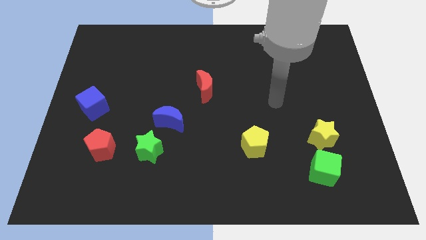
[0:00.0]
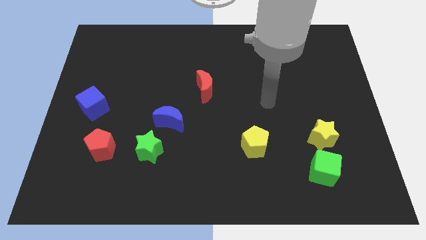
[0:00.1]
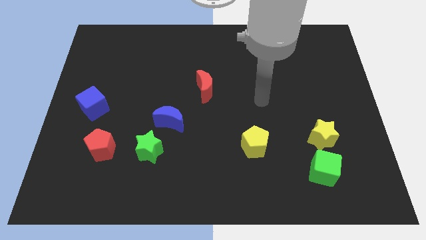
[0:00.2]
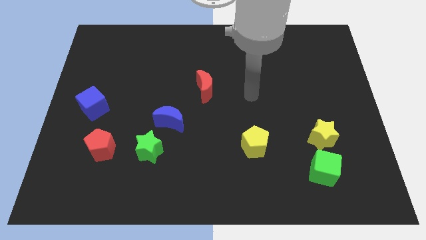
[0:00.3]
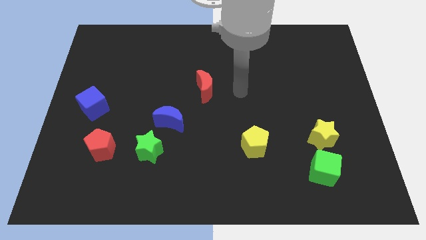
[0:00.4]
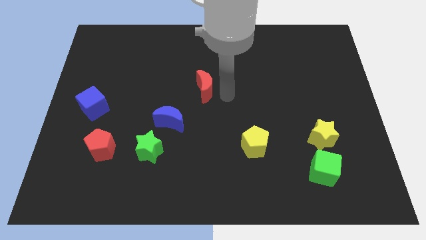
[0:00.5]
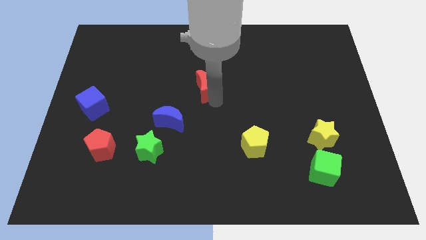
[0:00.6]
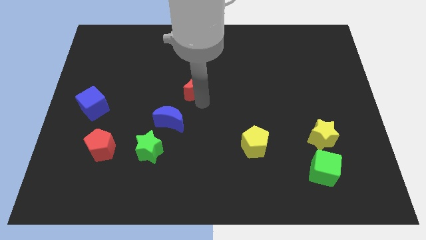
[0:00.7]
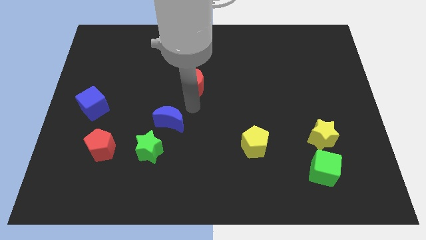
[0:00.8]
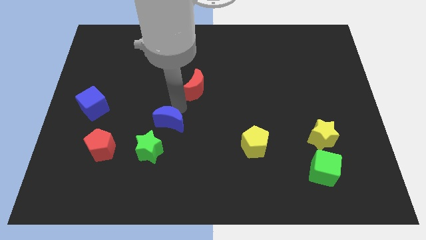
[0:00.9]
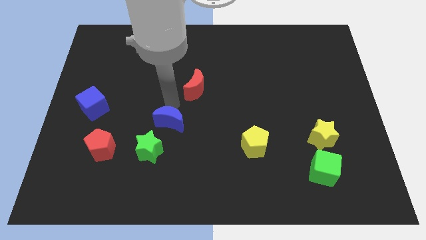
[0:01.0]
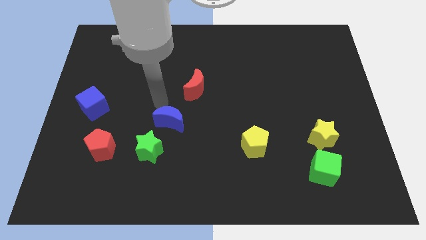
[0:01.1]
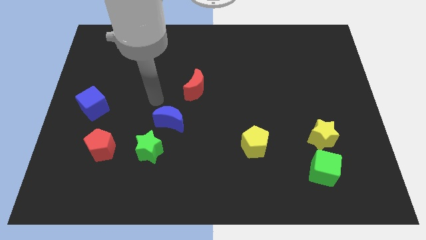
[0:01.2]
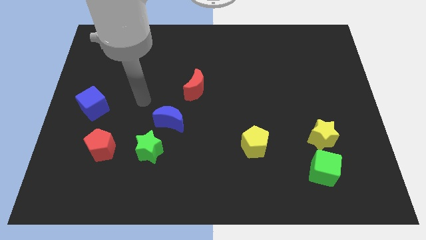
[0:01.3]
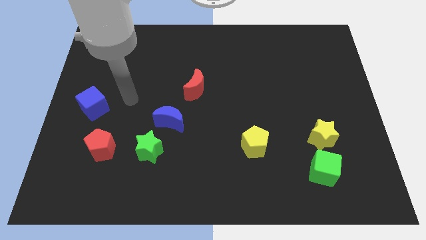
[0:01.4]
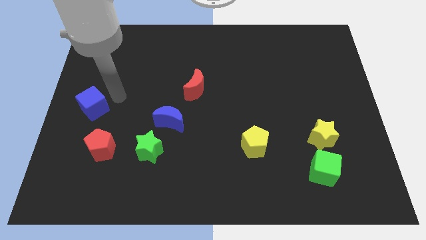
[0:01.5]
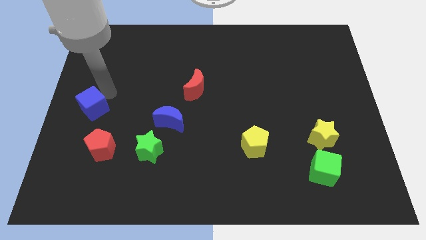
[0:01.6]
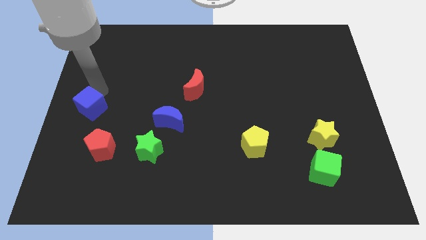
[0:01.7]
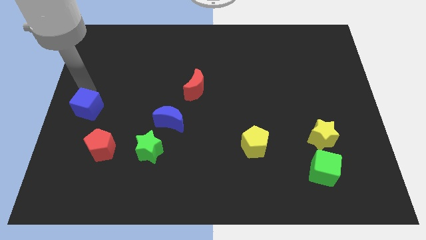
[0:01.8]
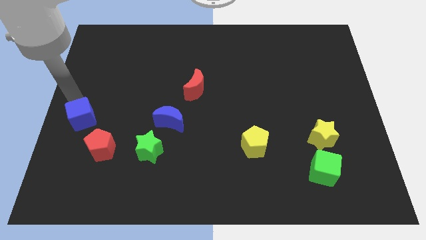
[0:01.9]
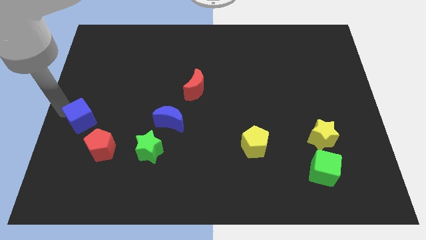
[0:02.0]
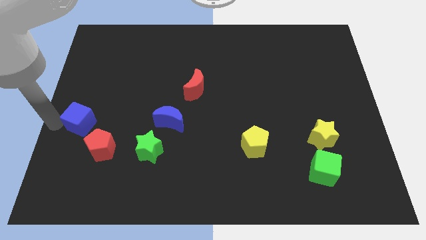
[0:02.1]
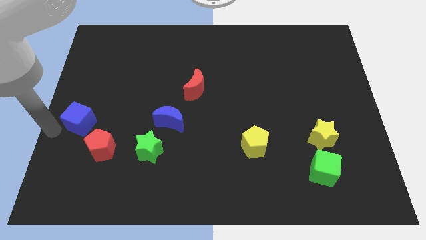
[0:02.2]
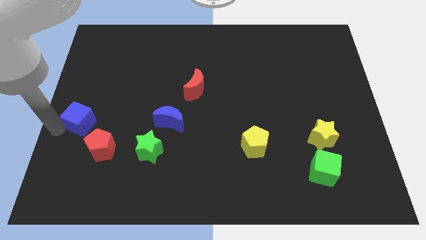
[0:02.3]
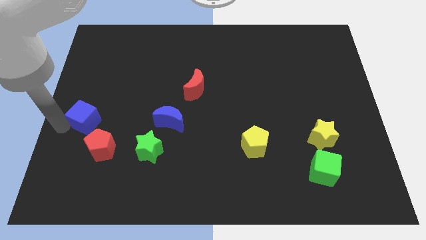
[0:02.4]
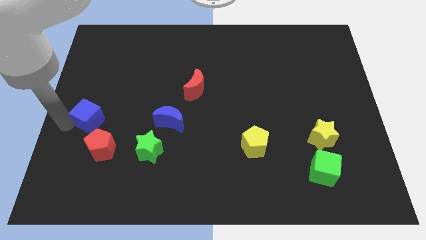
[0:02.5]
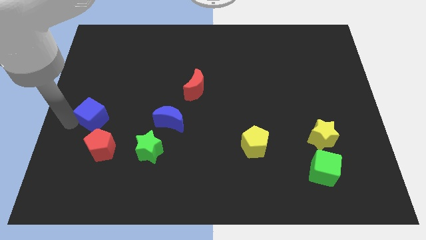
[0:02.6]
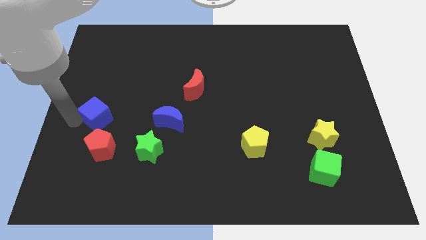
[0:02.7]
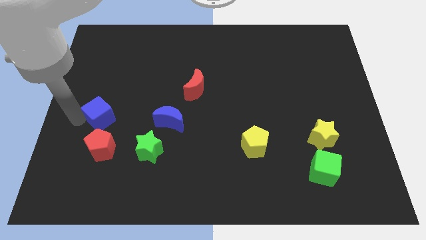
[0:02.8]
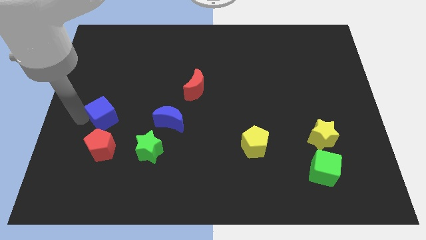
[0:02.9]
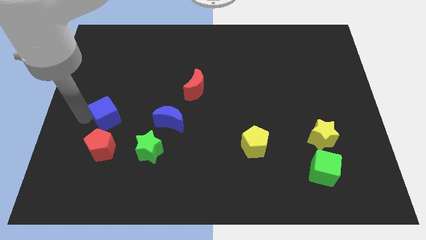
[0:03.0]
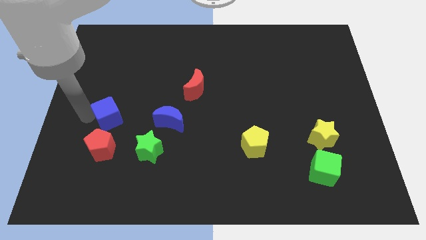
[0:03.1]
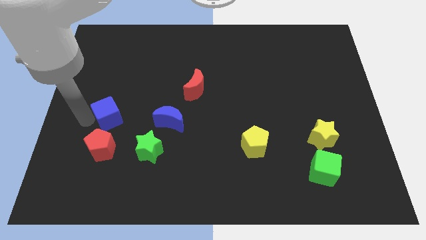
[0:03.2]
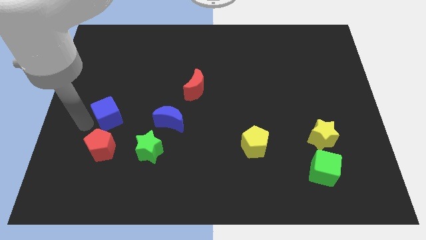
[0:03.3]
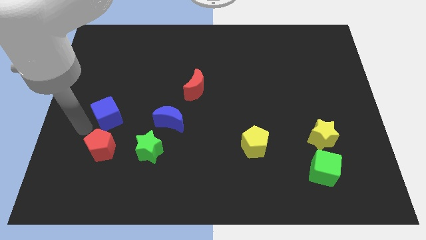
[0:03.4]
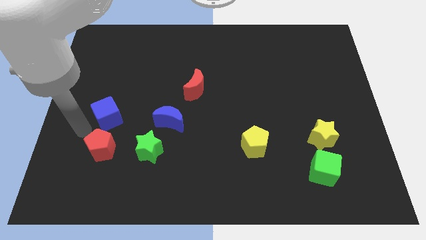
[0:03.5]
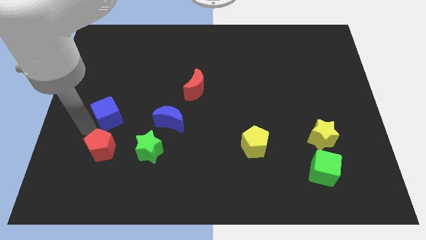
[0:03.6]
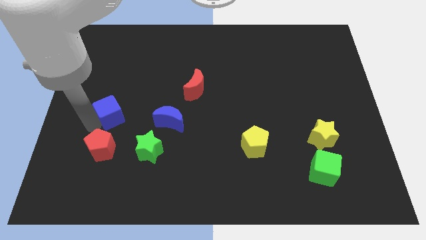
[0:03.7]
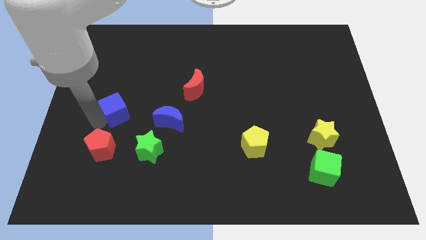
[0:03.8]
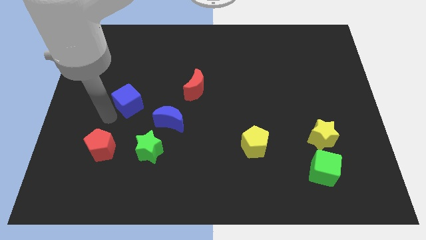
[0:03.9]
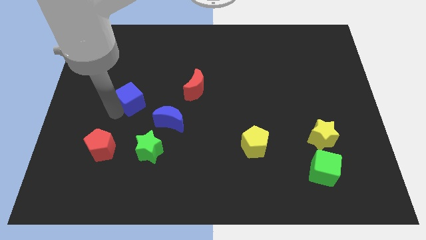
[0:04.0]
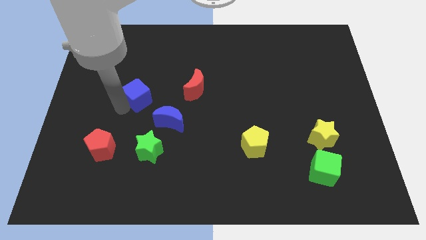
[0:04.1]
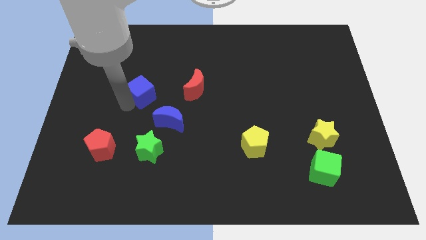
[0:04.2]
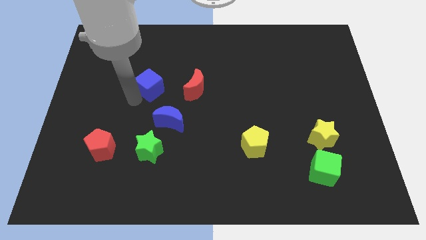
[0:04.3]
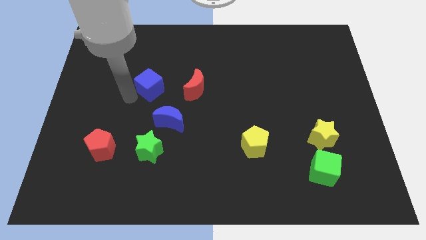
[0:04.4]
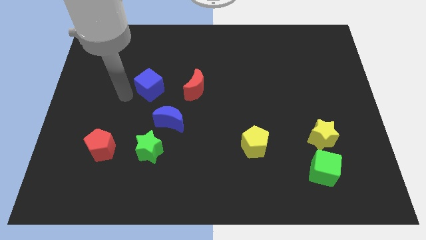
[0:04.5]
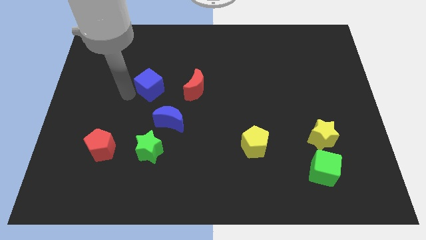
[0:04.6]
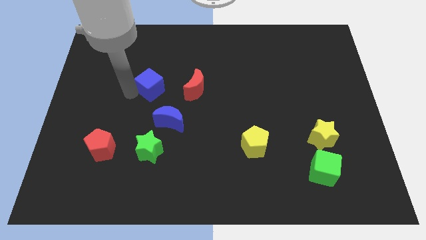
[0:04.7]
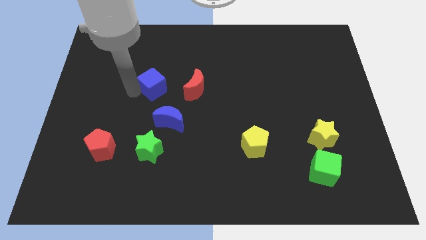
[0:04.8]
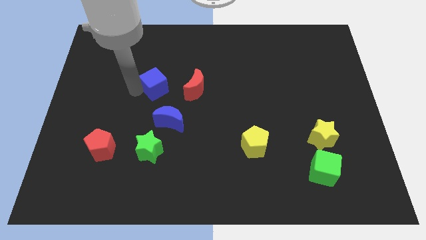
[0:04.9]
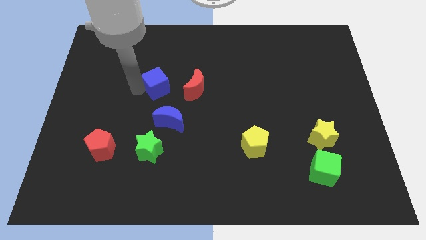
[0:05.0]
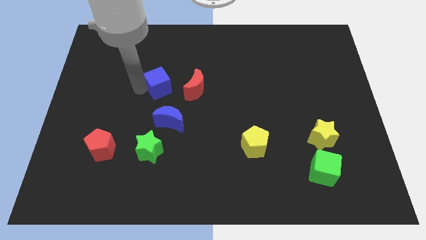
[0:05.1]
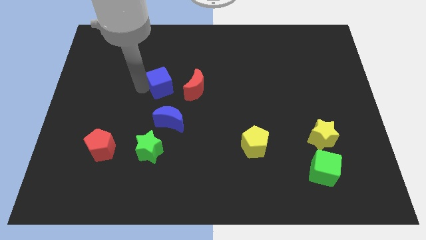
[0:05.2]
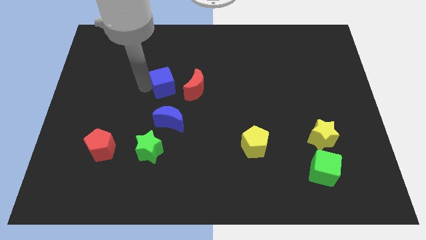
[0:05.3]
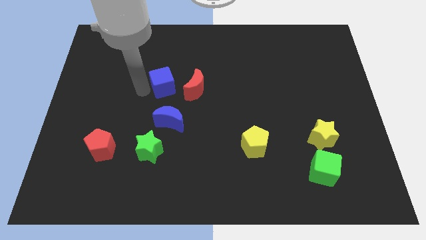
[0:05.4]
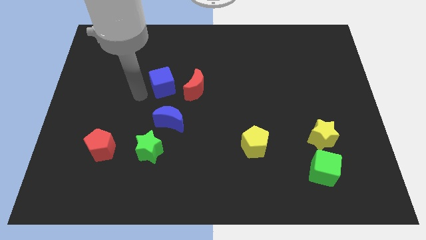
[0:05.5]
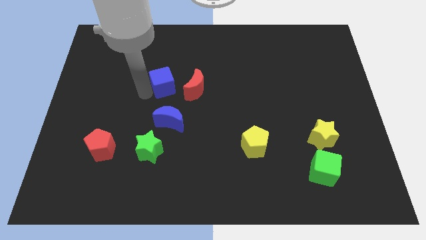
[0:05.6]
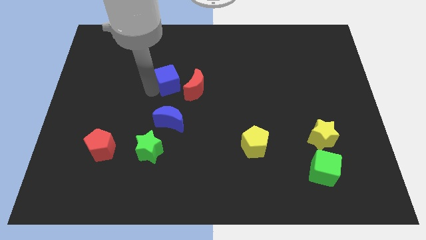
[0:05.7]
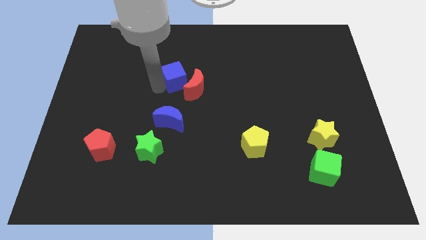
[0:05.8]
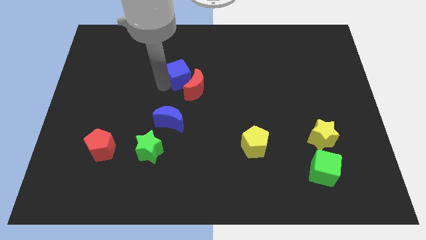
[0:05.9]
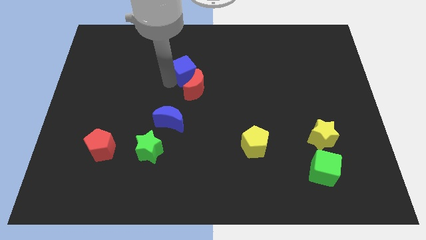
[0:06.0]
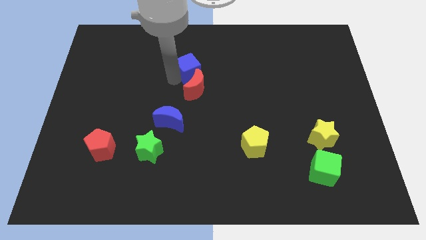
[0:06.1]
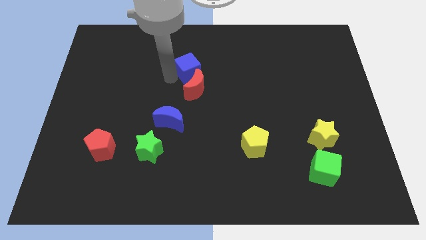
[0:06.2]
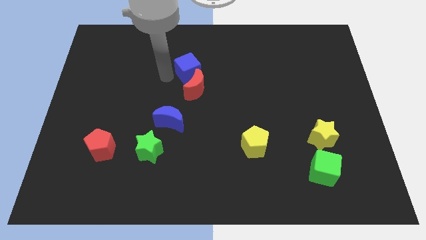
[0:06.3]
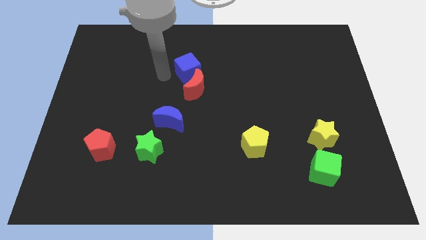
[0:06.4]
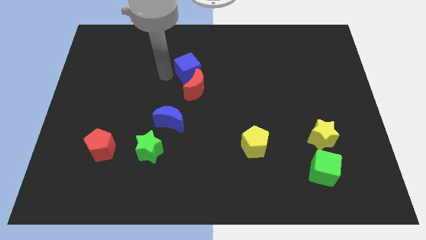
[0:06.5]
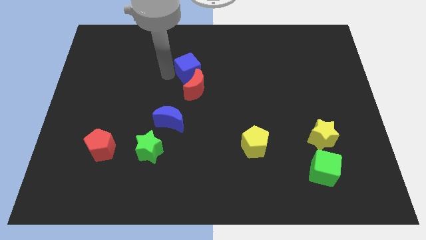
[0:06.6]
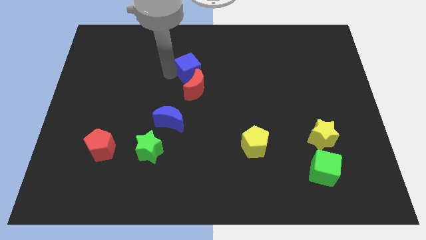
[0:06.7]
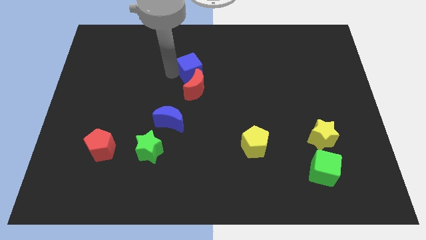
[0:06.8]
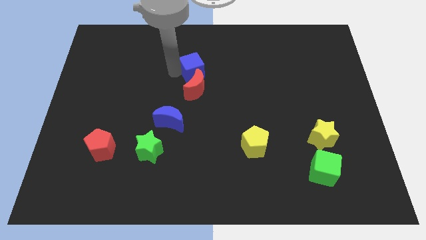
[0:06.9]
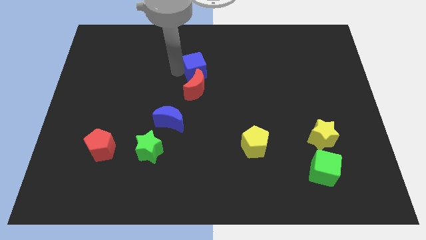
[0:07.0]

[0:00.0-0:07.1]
slide the blue cube diagonally up and to the right of the red moon

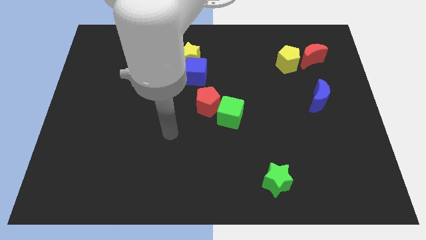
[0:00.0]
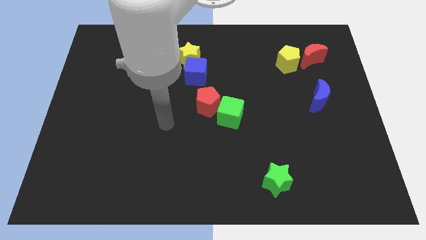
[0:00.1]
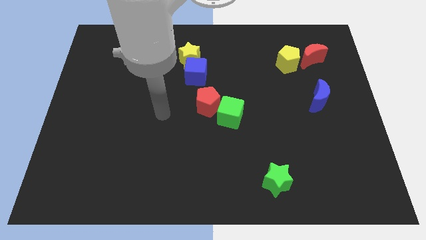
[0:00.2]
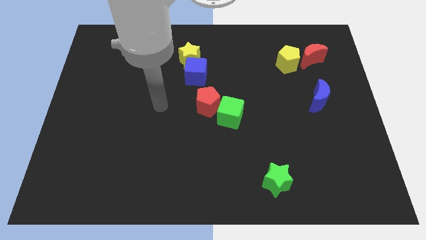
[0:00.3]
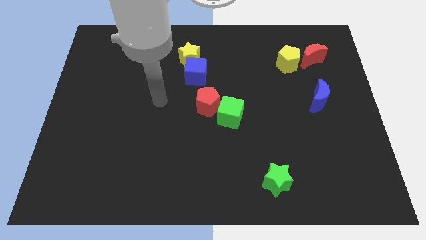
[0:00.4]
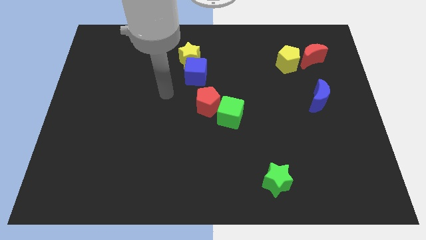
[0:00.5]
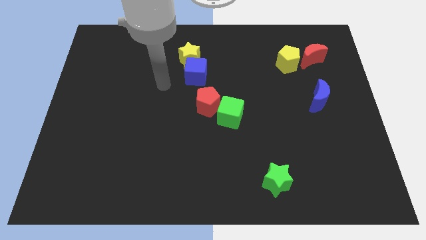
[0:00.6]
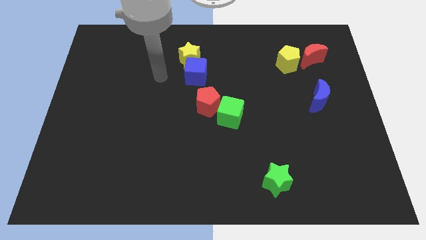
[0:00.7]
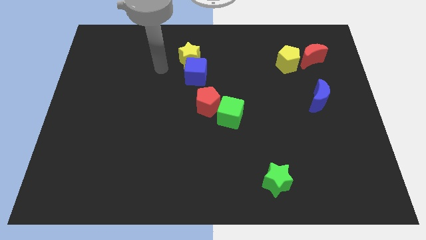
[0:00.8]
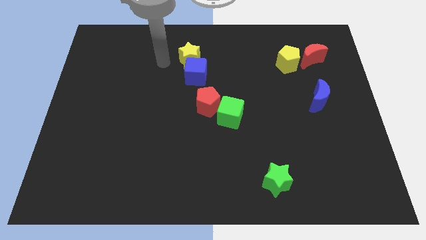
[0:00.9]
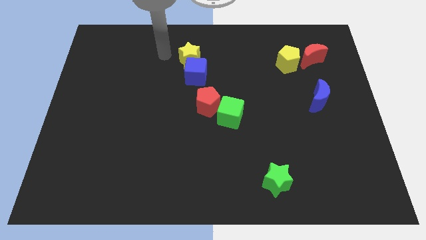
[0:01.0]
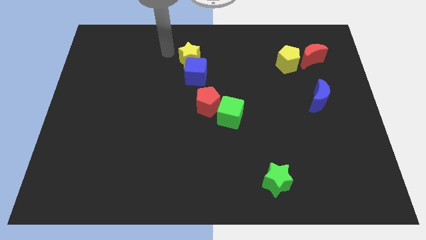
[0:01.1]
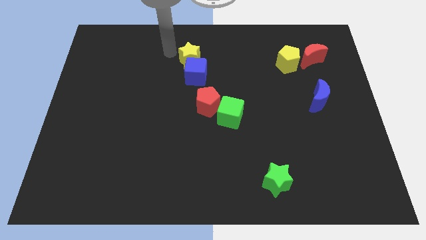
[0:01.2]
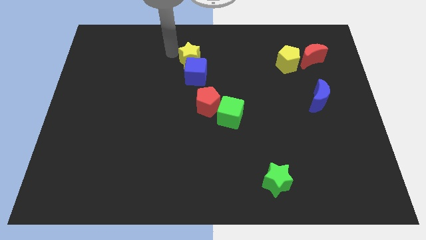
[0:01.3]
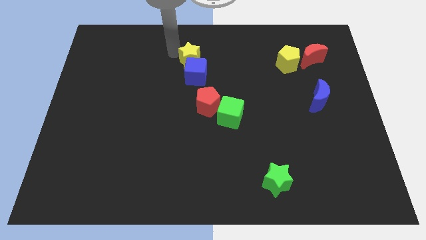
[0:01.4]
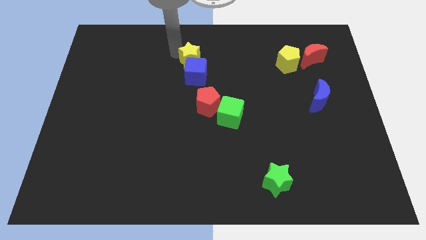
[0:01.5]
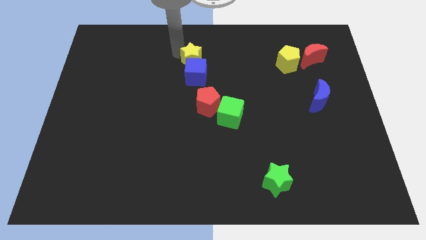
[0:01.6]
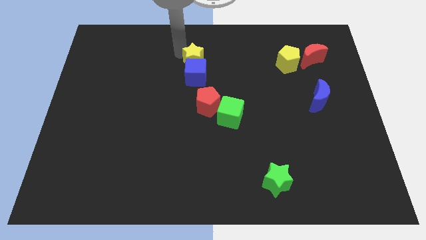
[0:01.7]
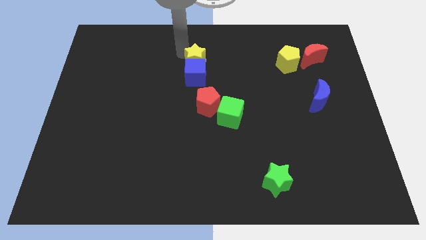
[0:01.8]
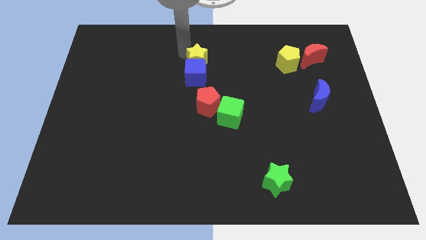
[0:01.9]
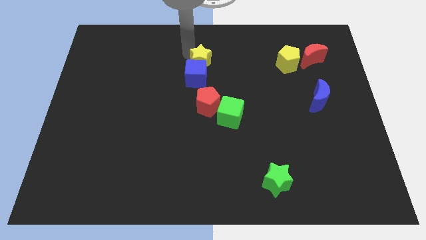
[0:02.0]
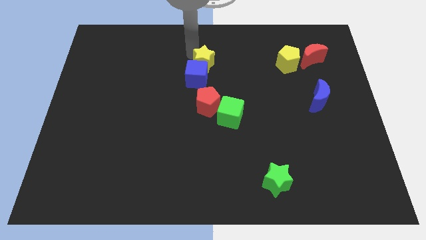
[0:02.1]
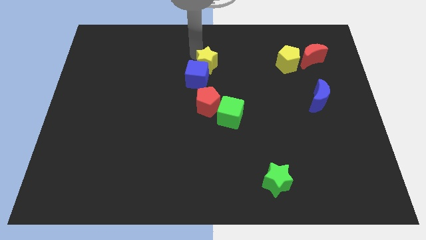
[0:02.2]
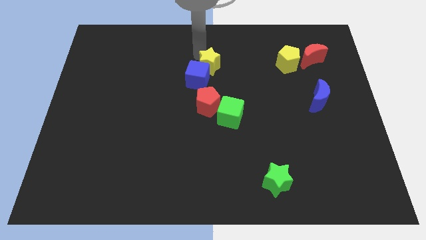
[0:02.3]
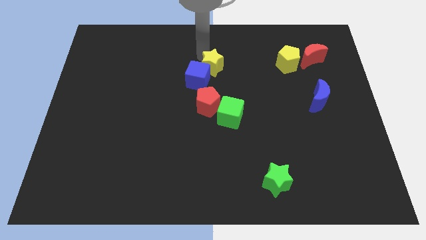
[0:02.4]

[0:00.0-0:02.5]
put the yellow star just right of the blue cube
